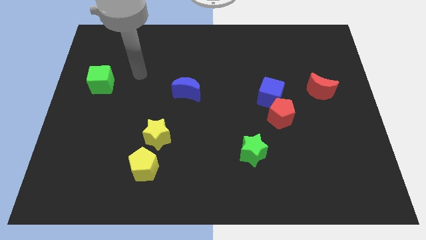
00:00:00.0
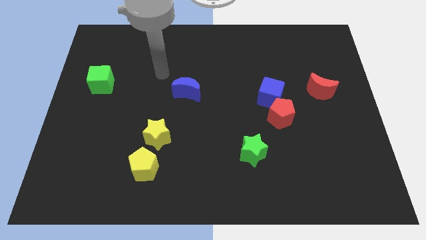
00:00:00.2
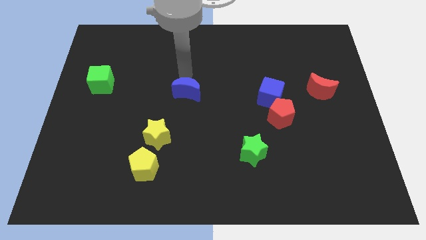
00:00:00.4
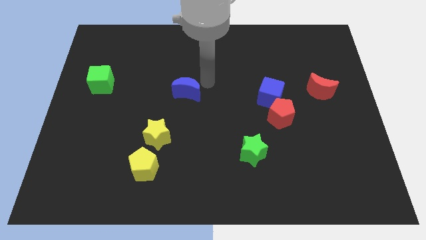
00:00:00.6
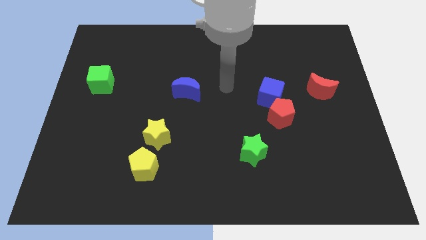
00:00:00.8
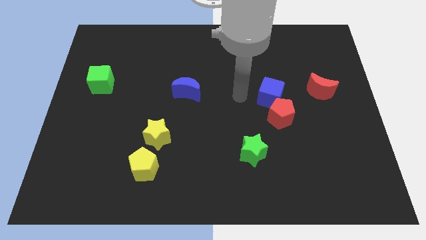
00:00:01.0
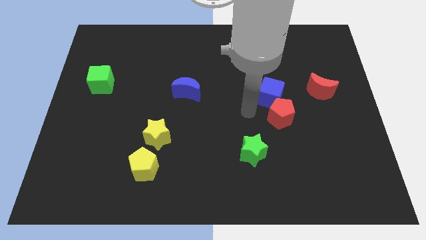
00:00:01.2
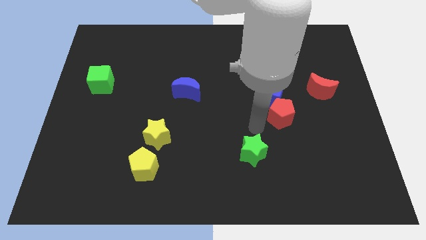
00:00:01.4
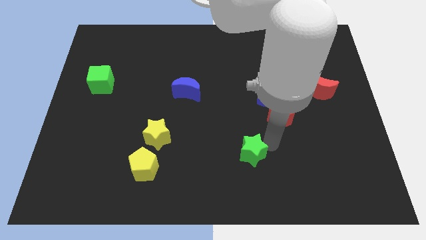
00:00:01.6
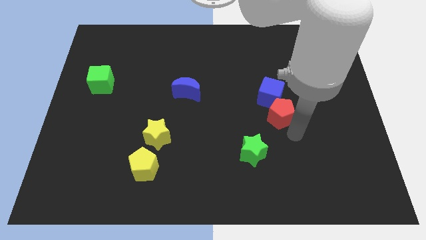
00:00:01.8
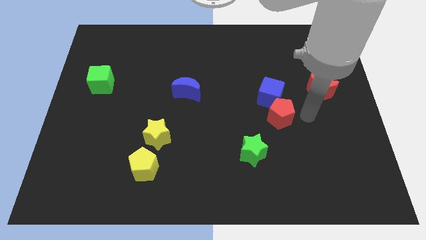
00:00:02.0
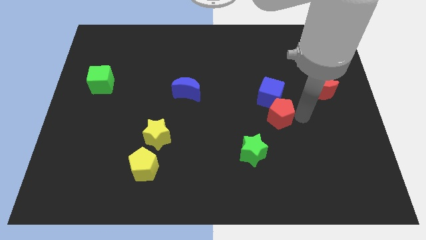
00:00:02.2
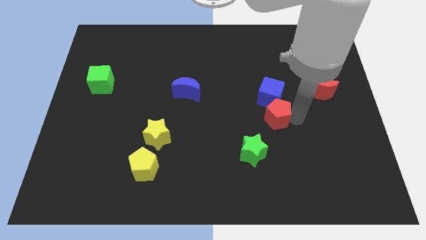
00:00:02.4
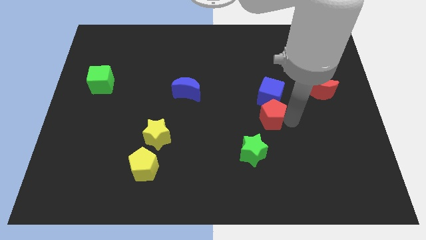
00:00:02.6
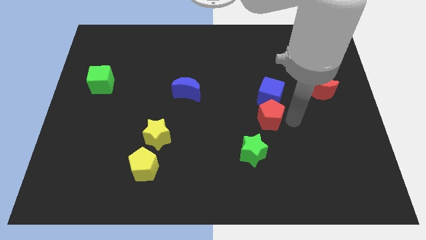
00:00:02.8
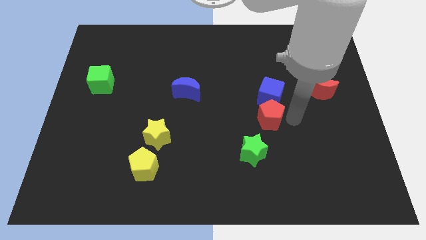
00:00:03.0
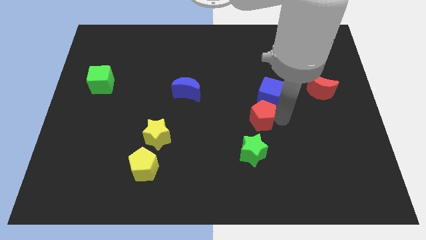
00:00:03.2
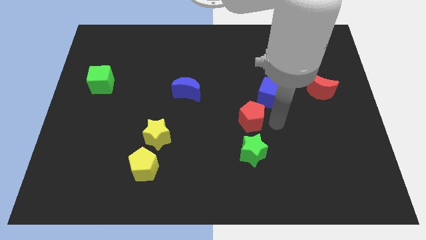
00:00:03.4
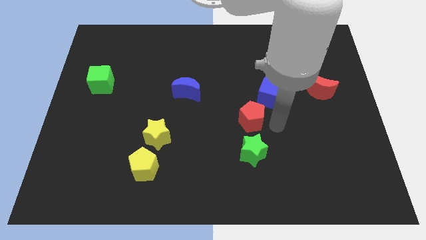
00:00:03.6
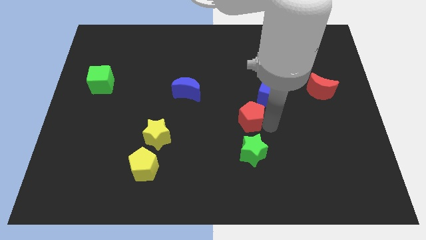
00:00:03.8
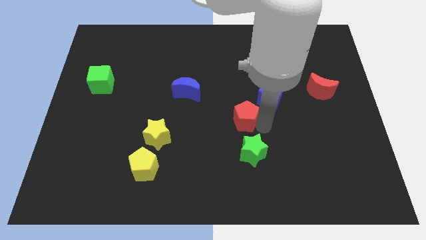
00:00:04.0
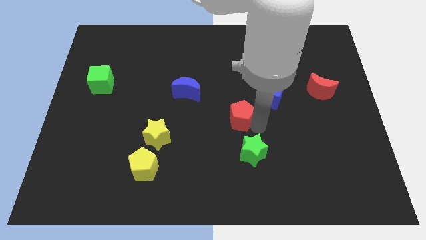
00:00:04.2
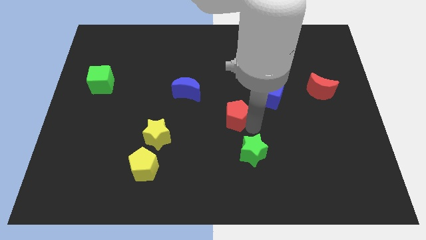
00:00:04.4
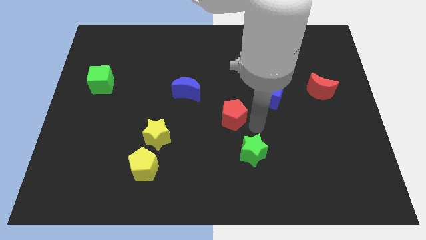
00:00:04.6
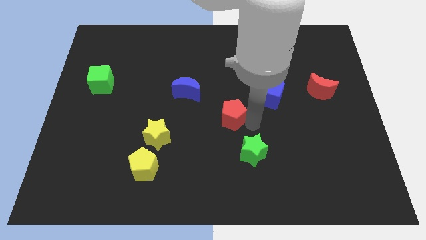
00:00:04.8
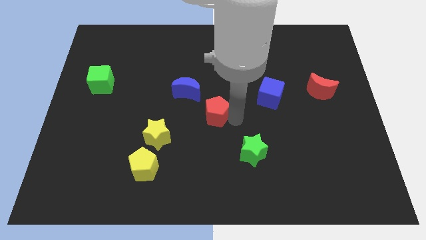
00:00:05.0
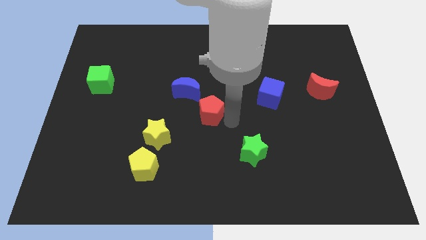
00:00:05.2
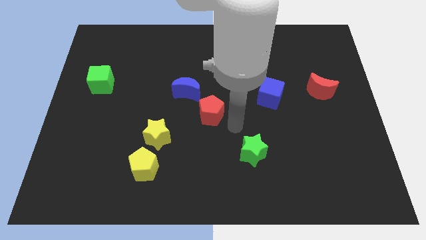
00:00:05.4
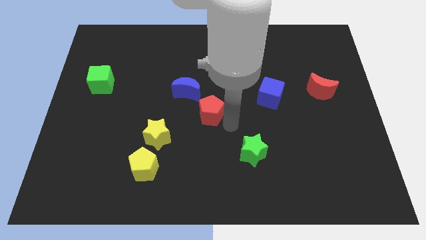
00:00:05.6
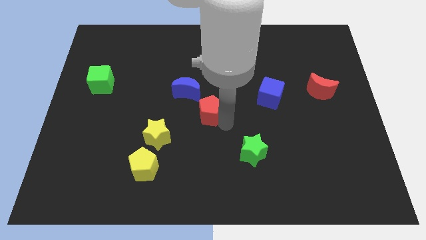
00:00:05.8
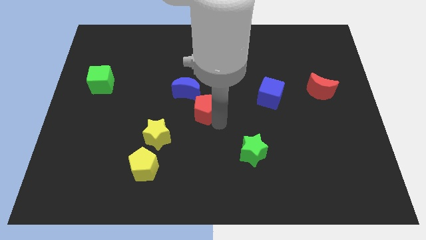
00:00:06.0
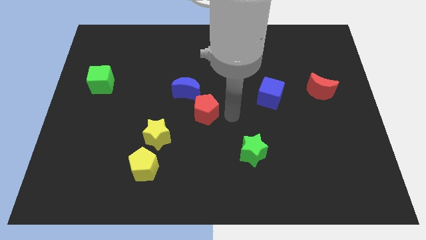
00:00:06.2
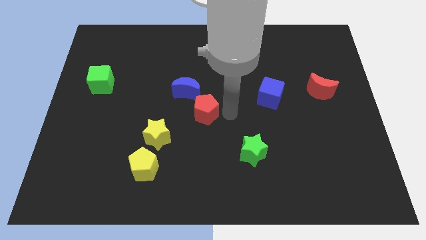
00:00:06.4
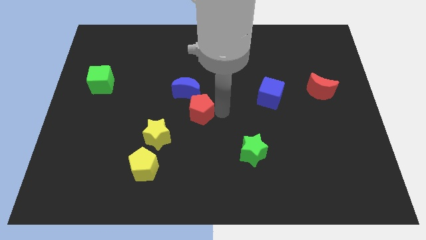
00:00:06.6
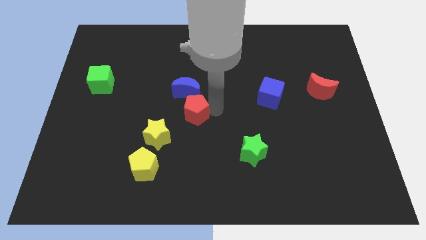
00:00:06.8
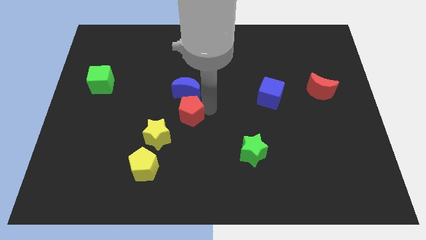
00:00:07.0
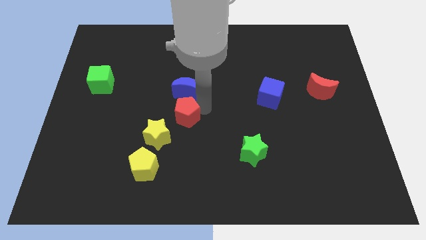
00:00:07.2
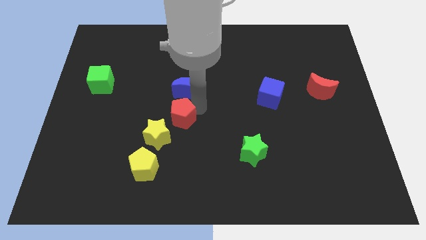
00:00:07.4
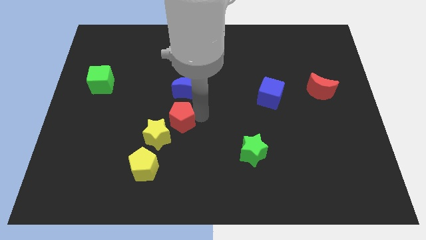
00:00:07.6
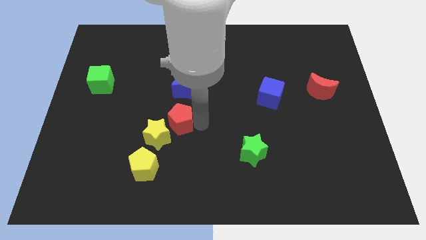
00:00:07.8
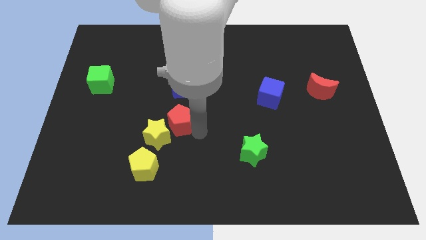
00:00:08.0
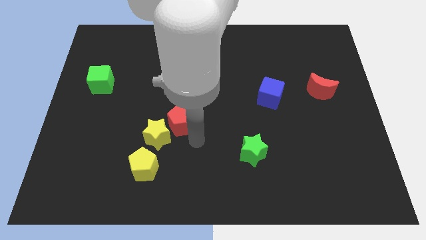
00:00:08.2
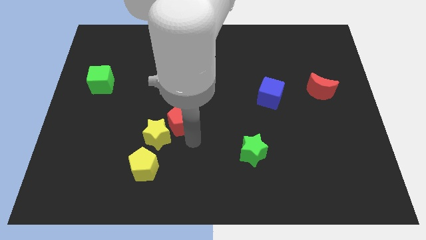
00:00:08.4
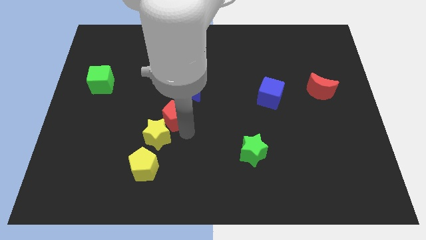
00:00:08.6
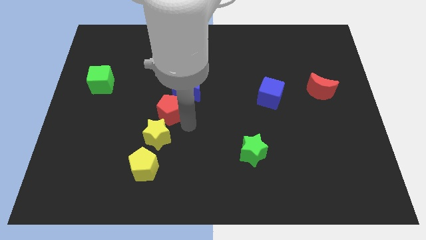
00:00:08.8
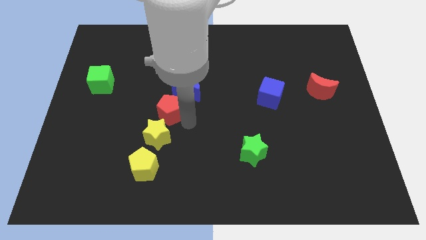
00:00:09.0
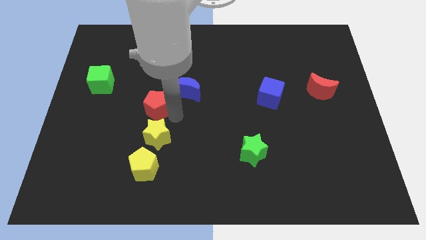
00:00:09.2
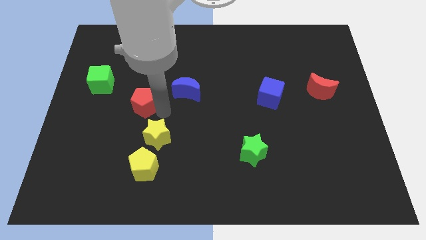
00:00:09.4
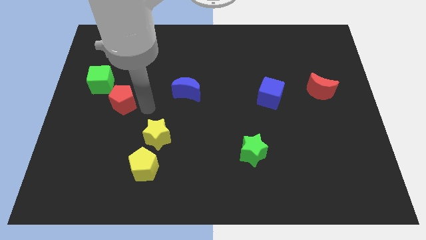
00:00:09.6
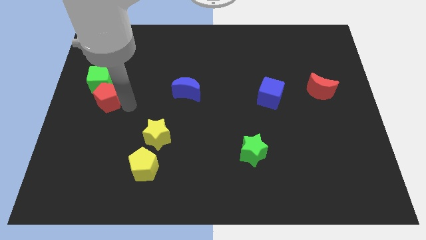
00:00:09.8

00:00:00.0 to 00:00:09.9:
slide the red pentagon towards the green cube

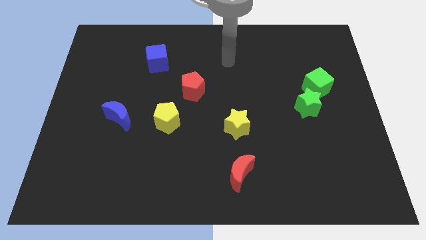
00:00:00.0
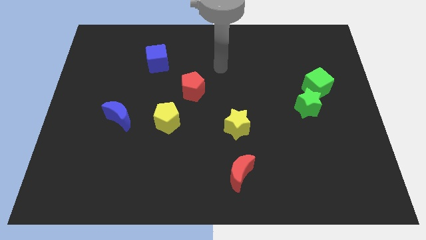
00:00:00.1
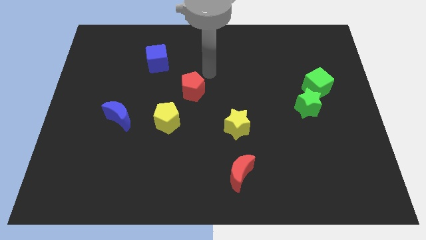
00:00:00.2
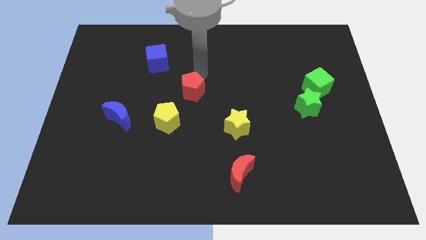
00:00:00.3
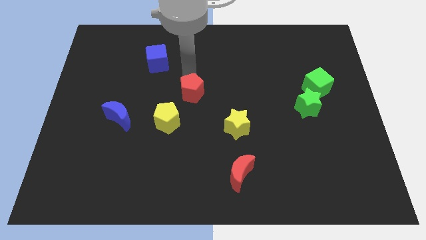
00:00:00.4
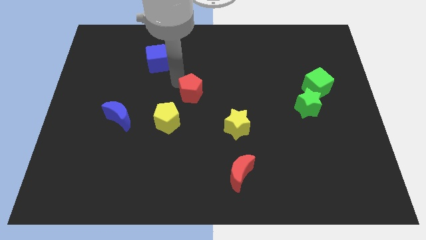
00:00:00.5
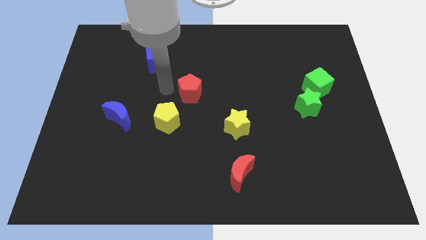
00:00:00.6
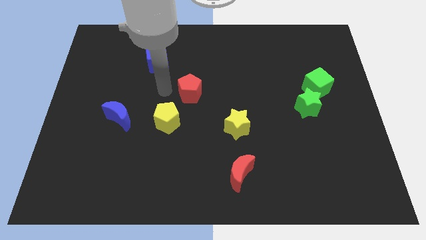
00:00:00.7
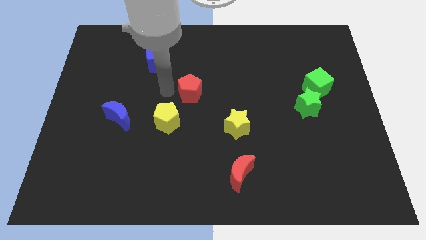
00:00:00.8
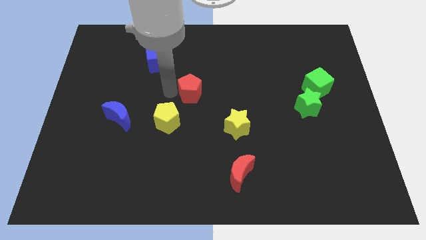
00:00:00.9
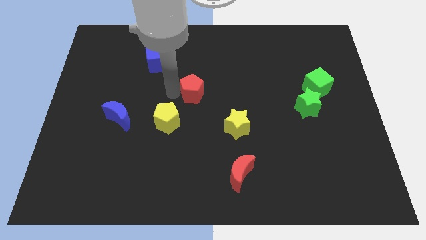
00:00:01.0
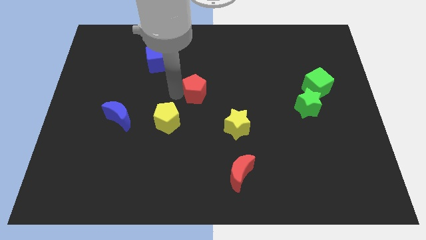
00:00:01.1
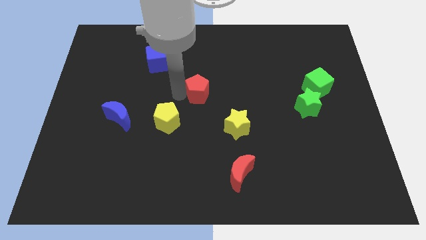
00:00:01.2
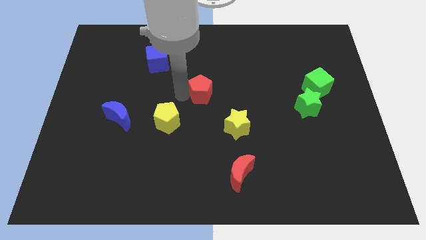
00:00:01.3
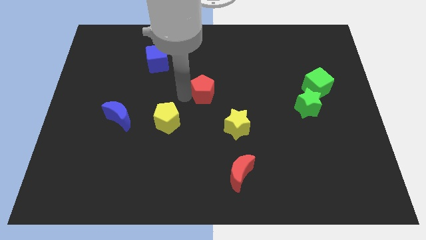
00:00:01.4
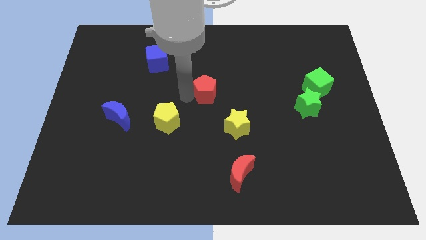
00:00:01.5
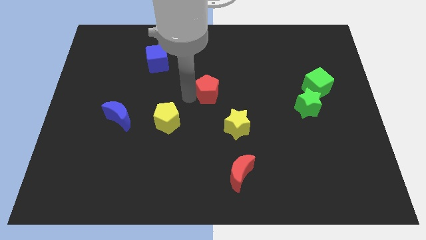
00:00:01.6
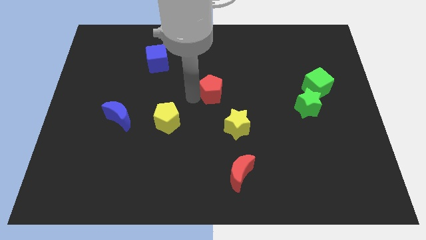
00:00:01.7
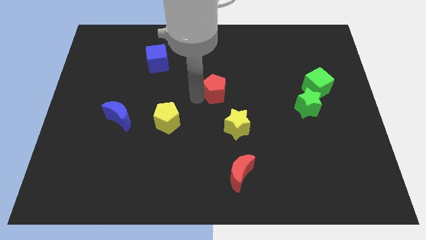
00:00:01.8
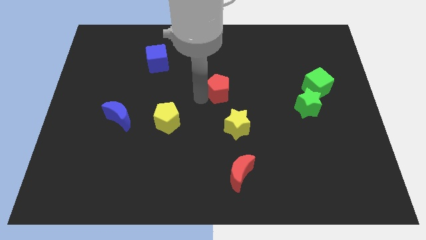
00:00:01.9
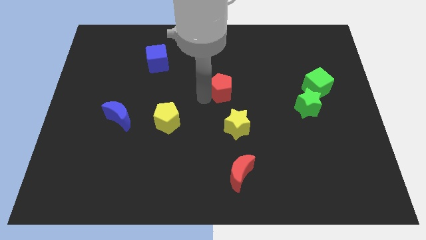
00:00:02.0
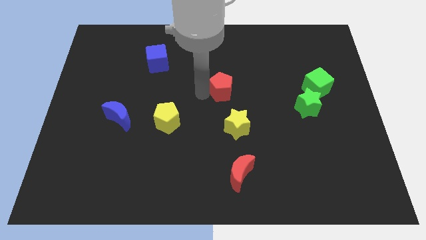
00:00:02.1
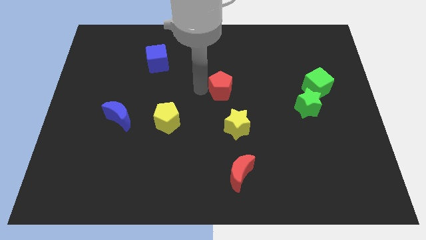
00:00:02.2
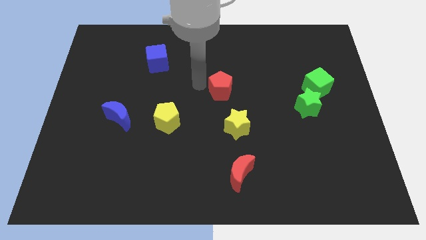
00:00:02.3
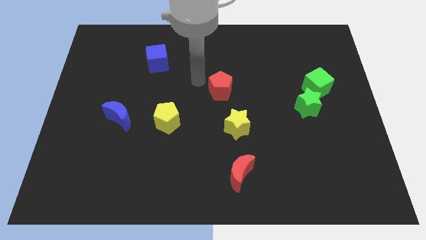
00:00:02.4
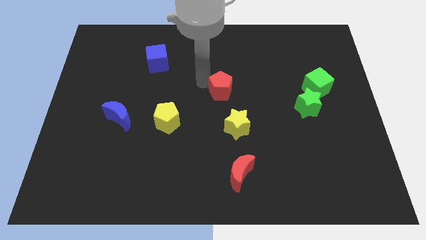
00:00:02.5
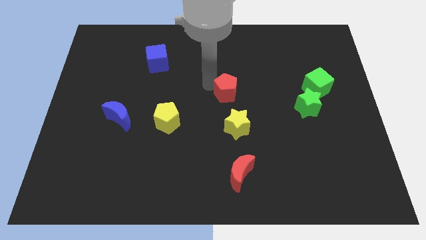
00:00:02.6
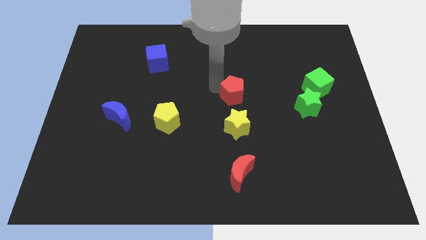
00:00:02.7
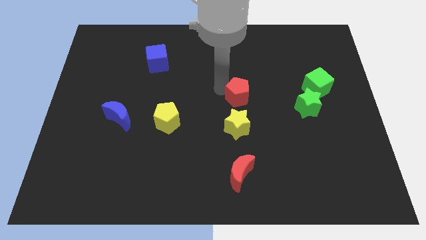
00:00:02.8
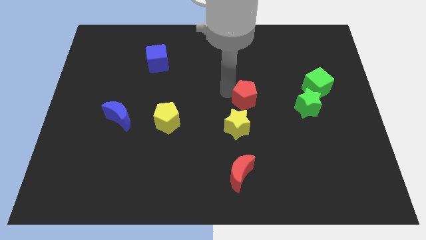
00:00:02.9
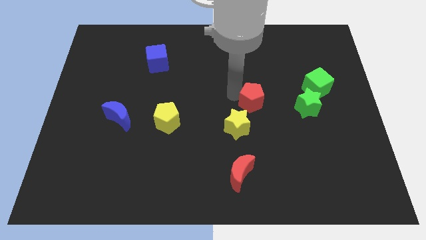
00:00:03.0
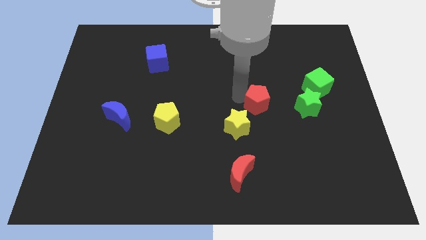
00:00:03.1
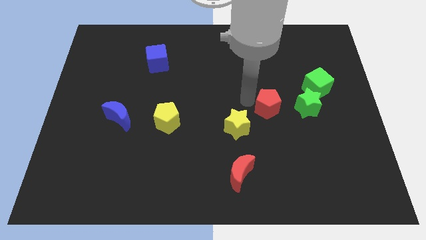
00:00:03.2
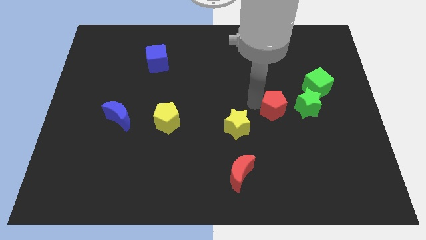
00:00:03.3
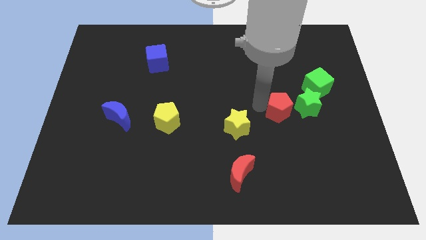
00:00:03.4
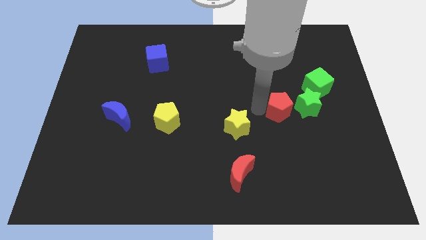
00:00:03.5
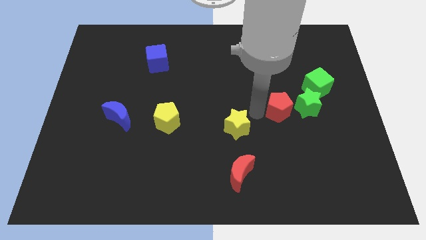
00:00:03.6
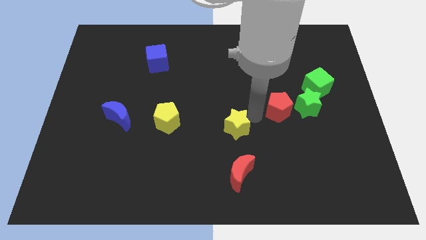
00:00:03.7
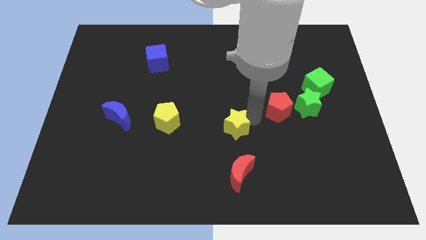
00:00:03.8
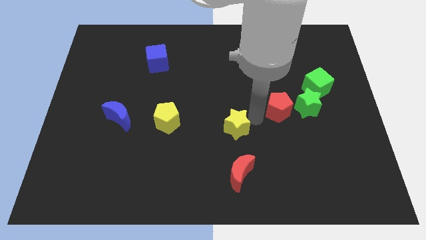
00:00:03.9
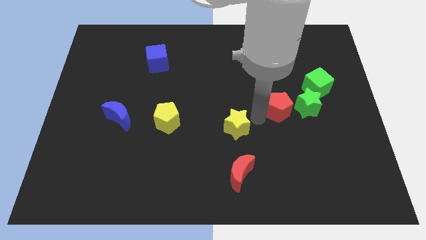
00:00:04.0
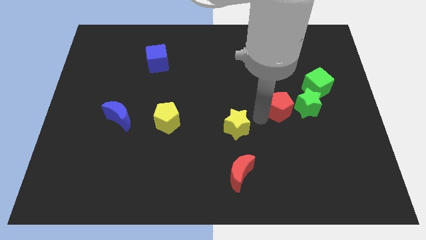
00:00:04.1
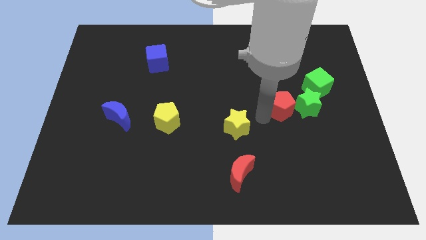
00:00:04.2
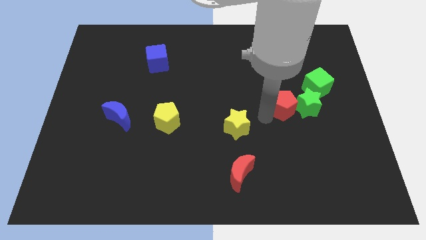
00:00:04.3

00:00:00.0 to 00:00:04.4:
move the red pentagon close to the green star
